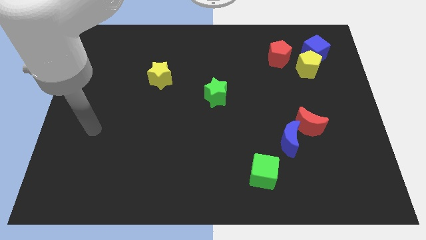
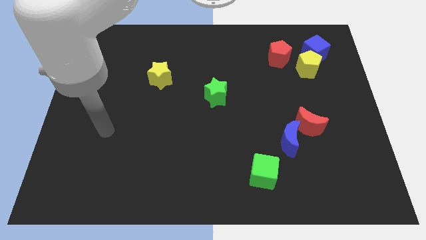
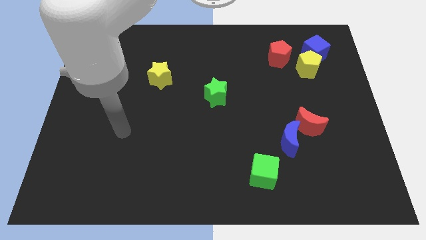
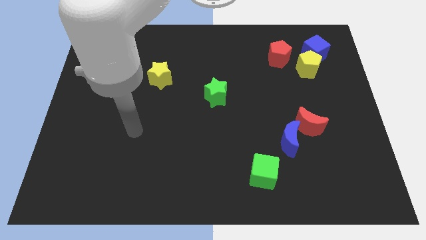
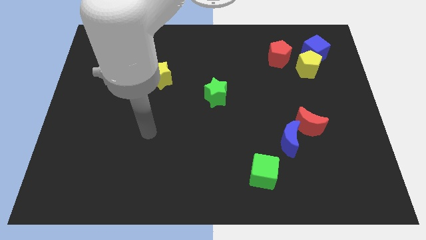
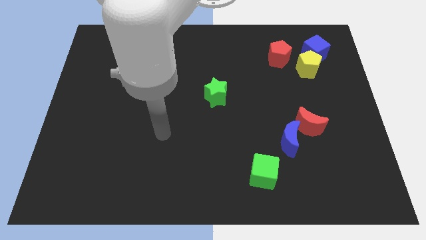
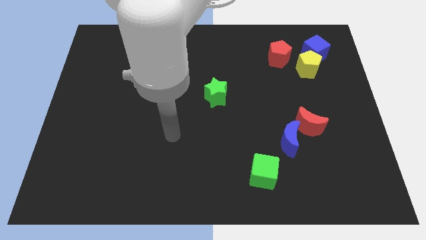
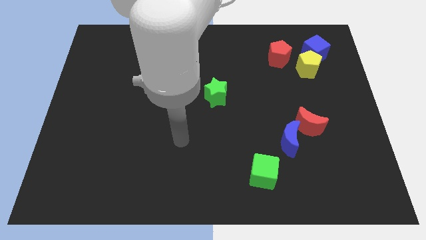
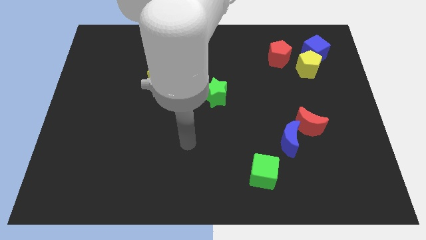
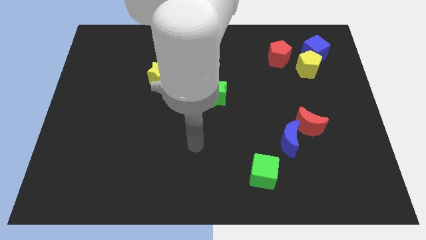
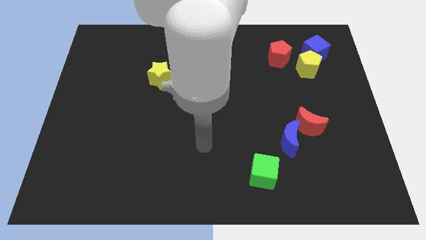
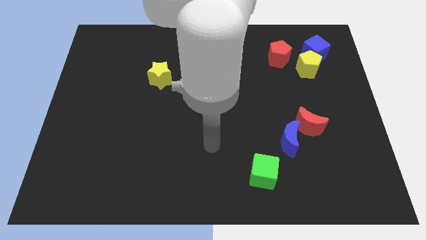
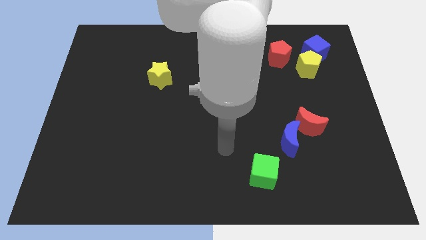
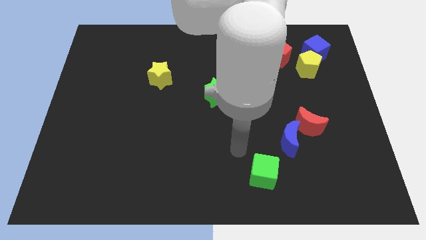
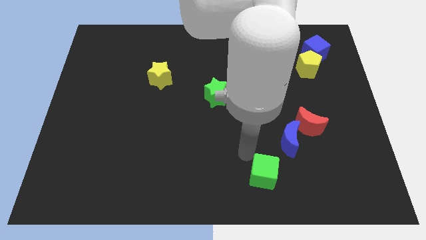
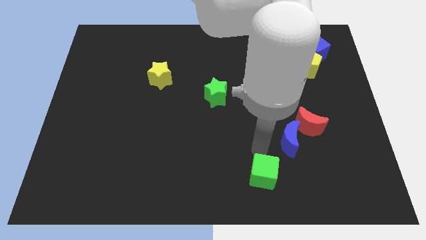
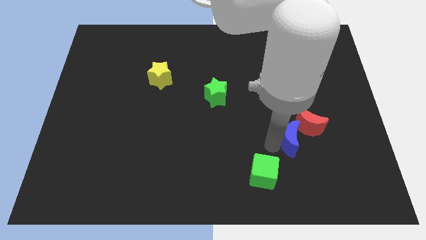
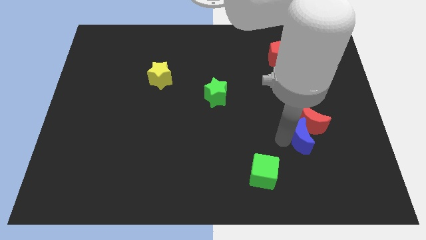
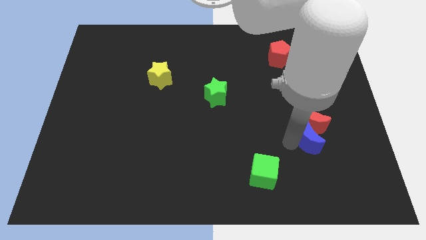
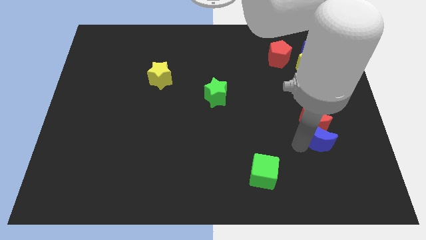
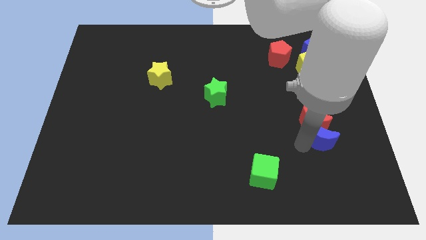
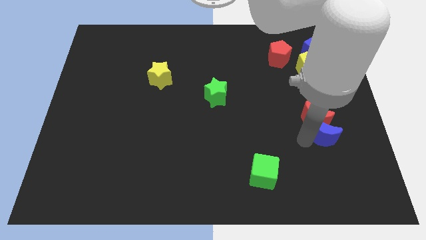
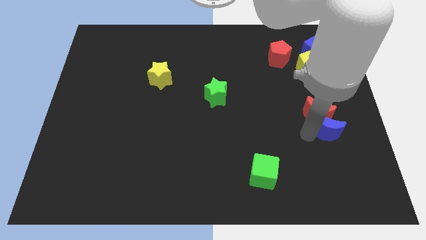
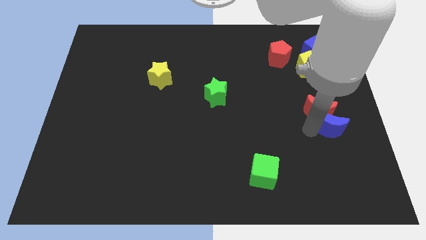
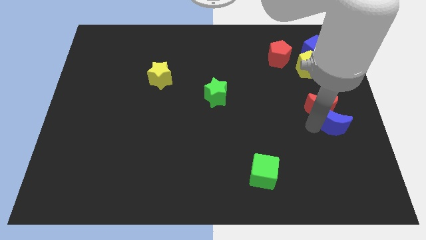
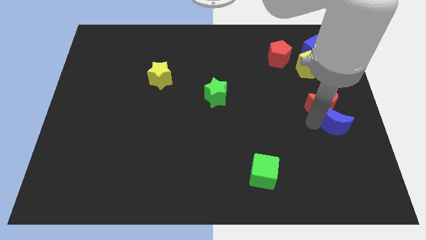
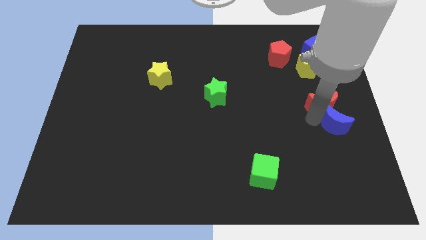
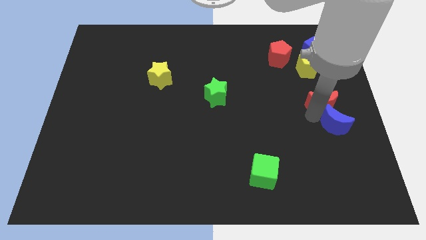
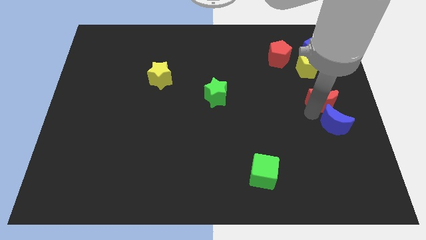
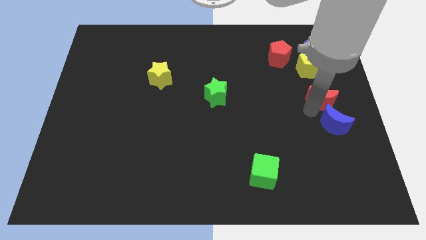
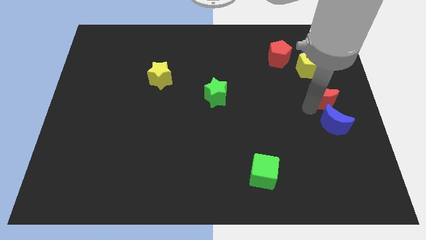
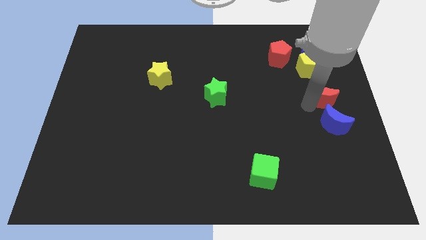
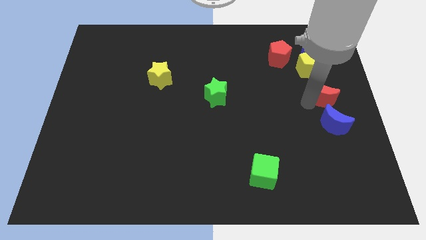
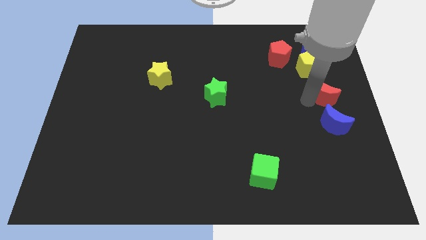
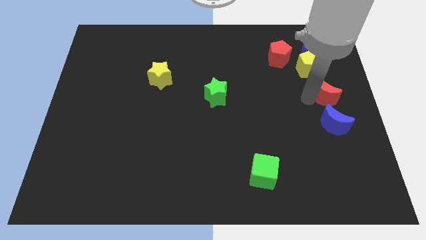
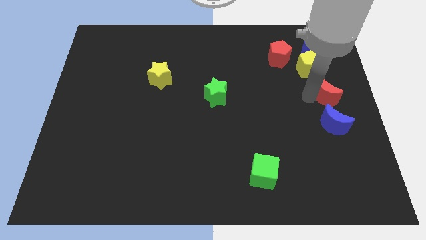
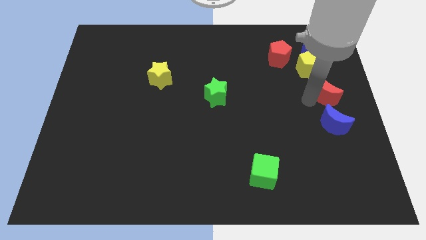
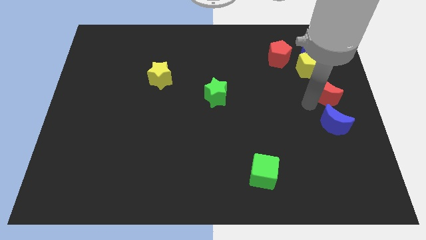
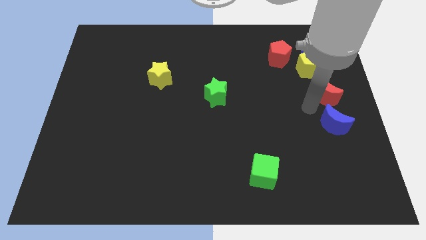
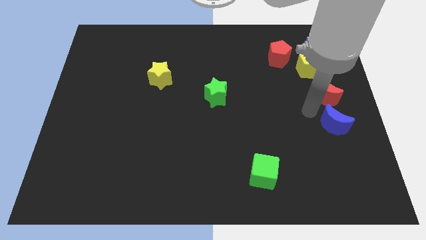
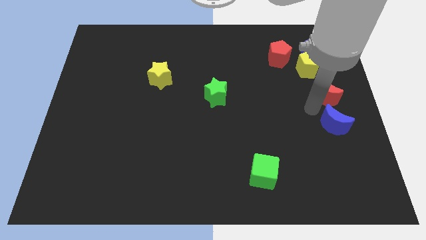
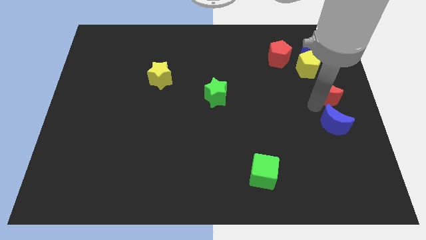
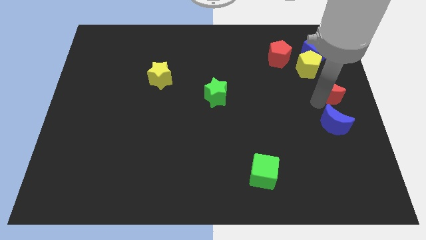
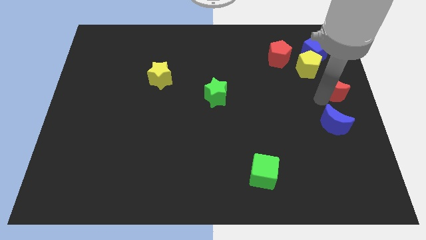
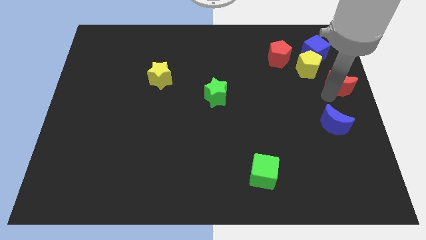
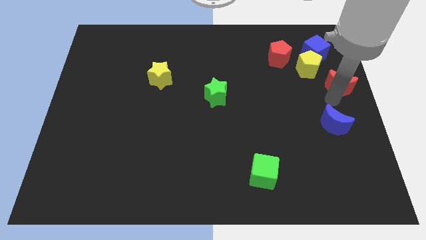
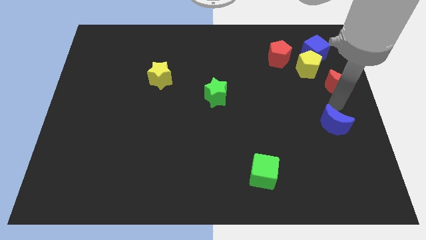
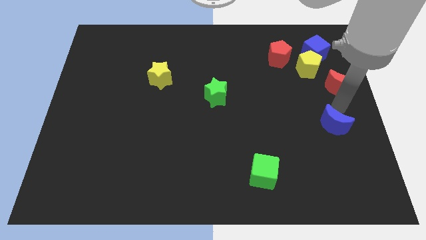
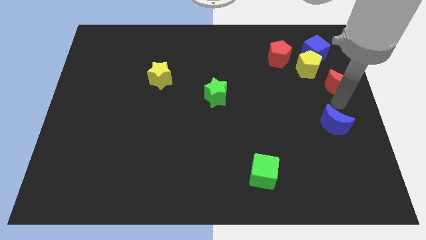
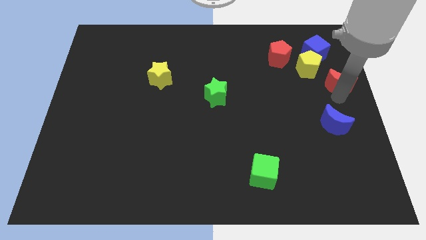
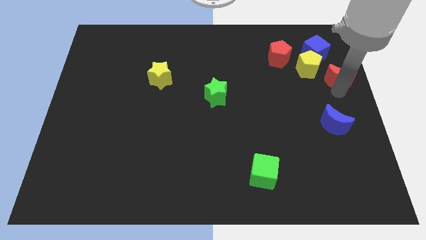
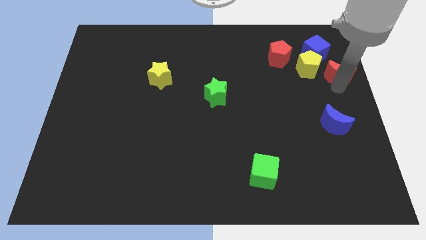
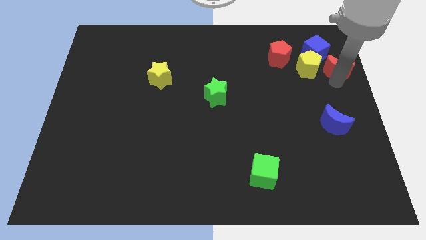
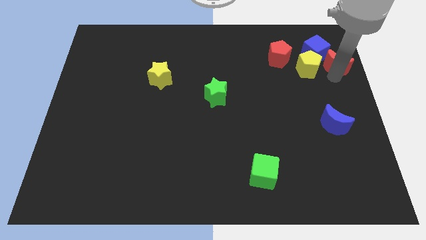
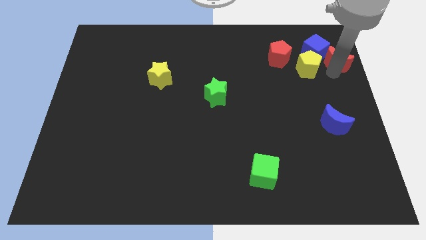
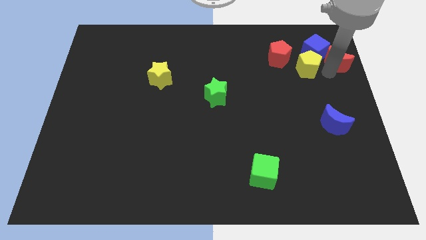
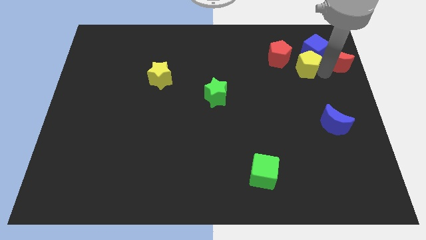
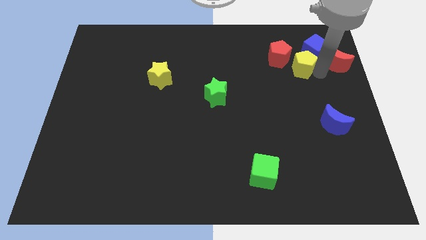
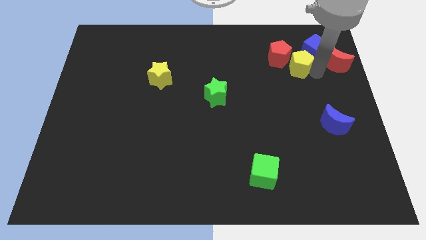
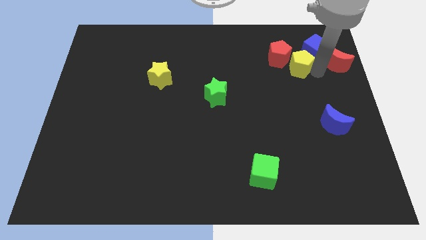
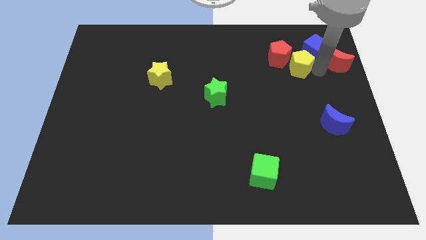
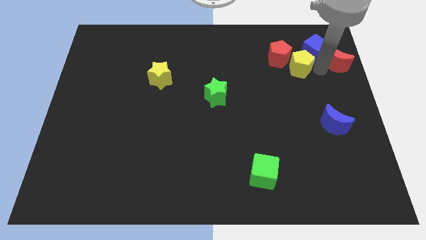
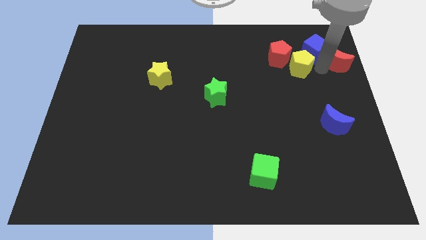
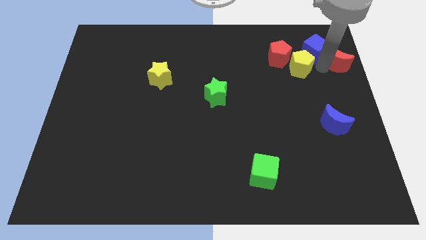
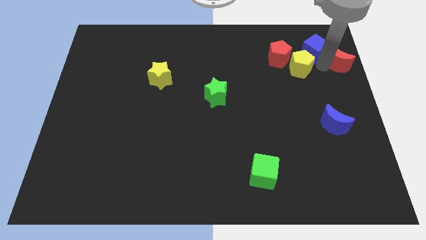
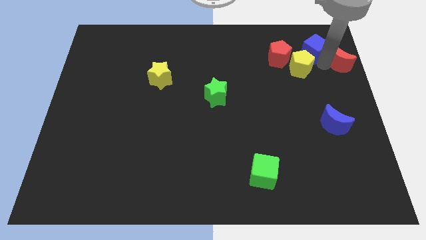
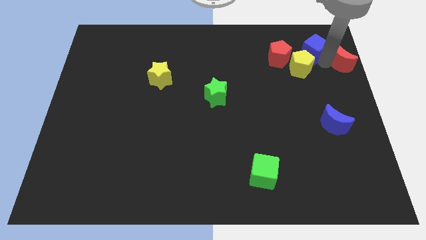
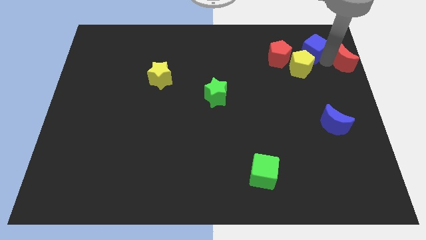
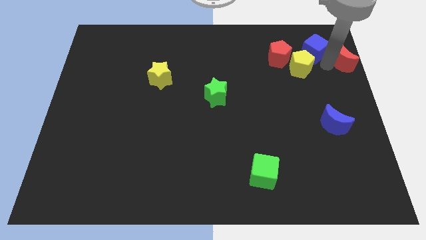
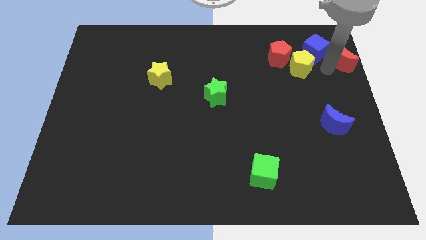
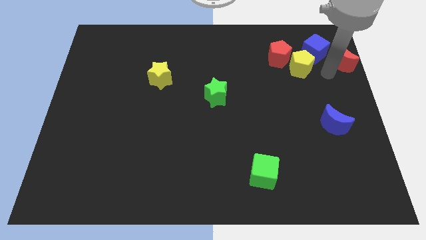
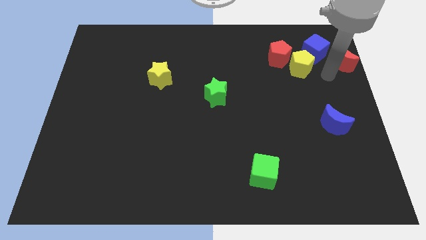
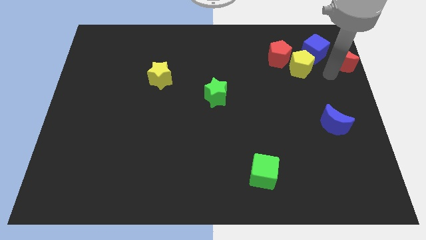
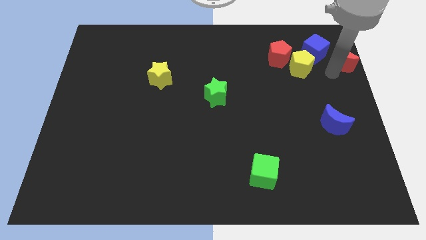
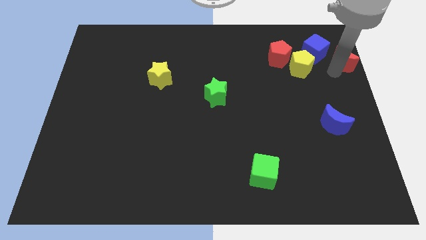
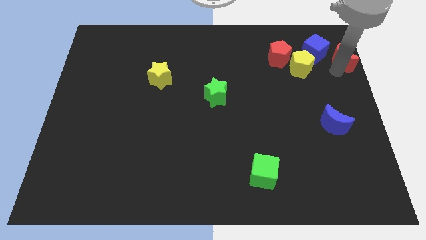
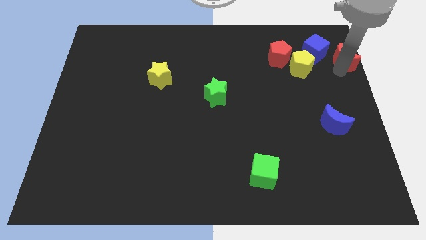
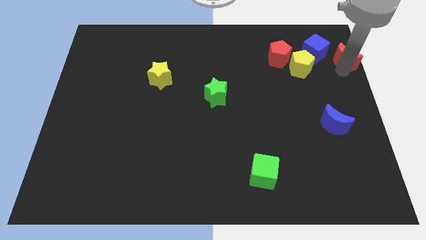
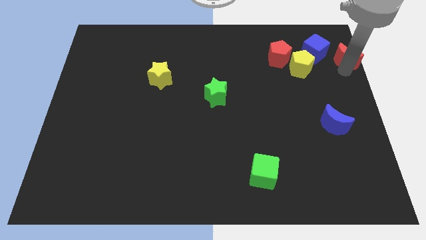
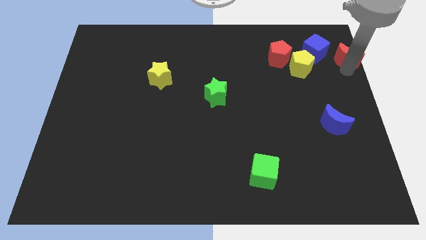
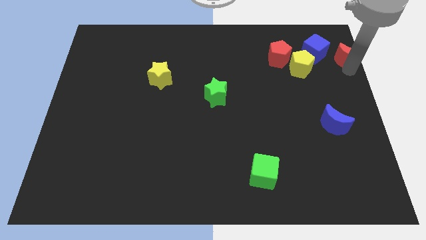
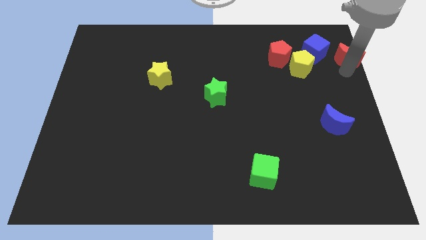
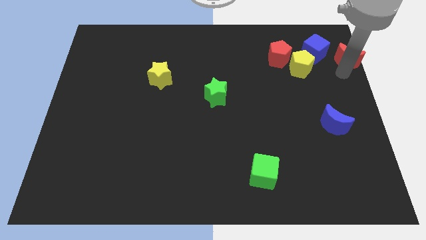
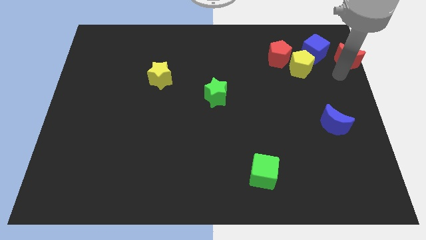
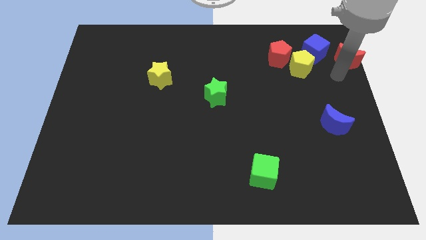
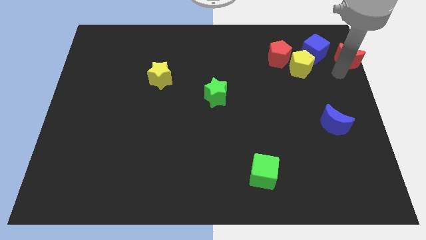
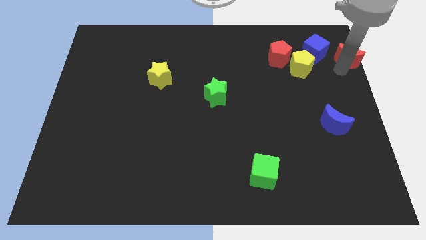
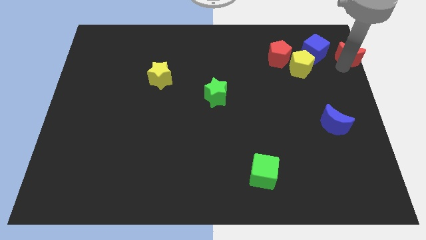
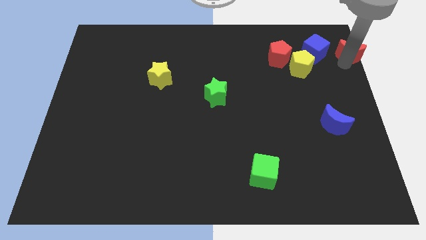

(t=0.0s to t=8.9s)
slide the red moon to the top right
